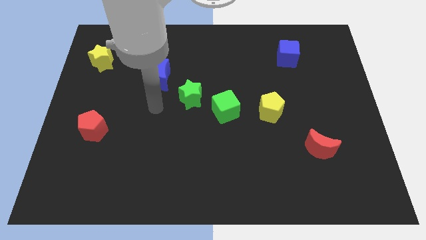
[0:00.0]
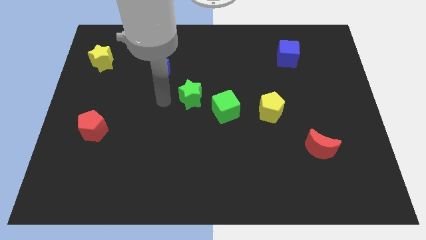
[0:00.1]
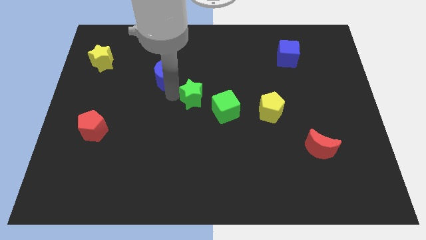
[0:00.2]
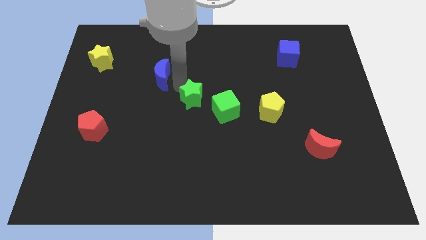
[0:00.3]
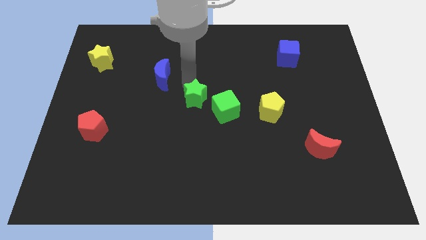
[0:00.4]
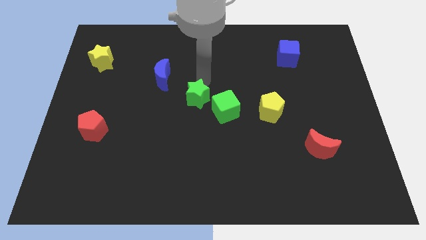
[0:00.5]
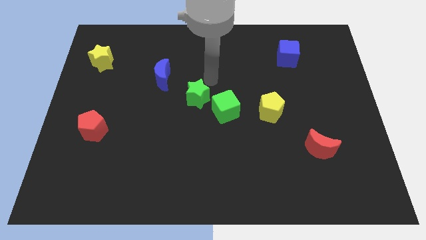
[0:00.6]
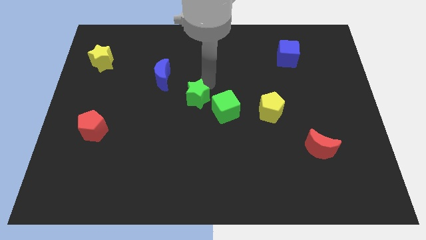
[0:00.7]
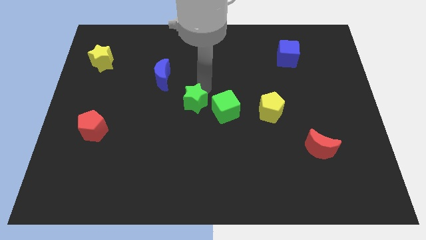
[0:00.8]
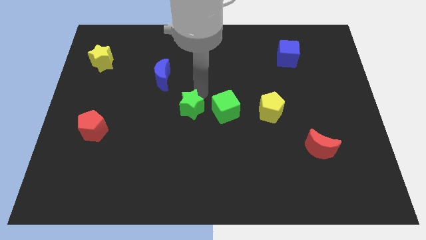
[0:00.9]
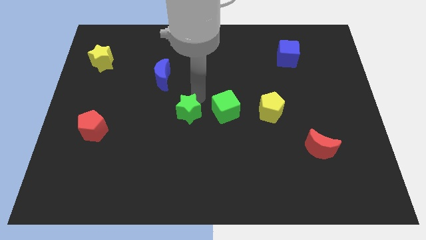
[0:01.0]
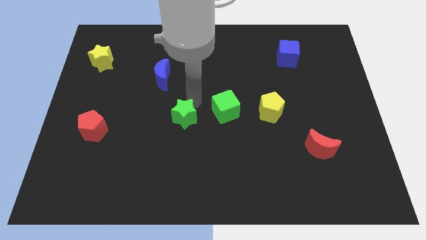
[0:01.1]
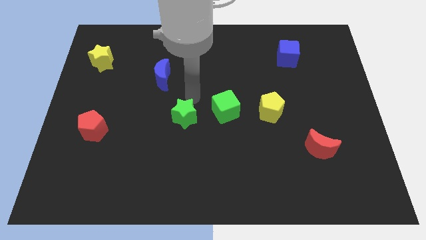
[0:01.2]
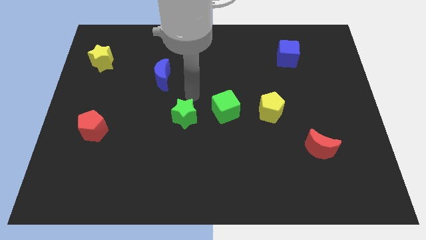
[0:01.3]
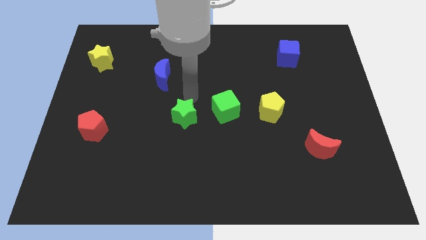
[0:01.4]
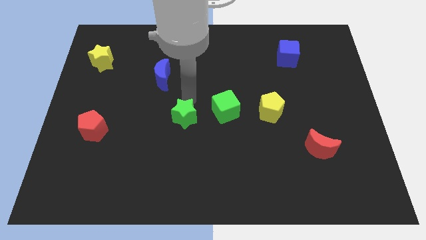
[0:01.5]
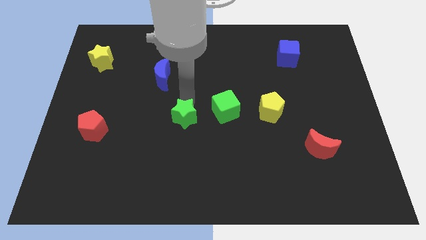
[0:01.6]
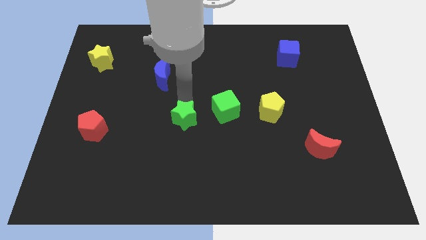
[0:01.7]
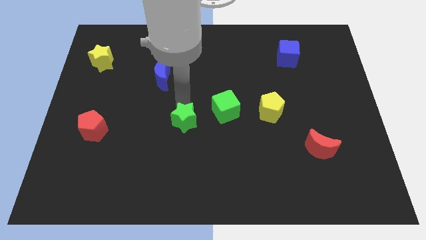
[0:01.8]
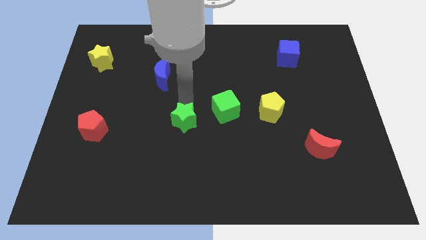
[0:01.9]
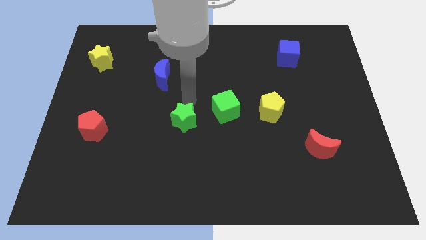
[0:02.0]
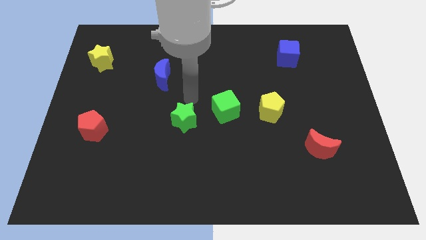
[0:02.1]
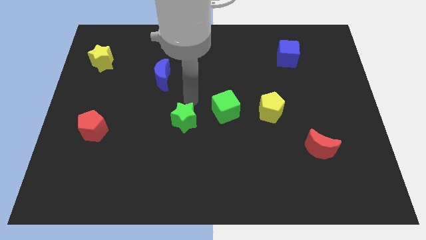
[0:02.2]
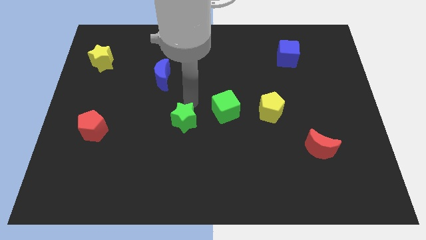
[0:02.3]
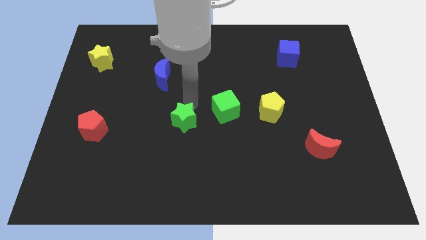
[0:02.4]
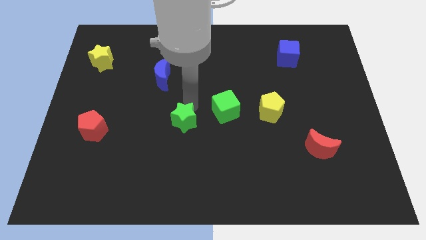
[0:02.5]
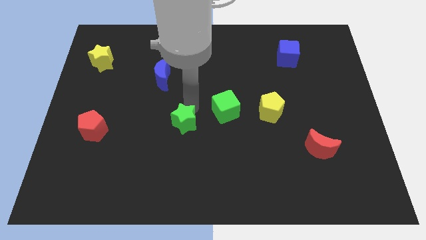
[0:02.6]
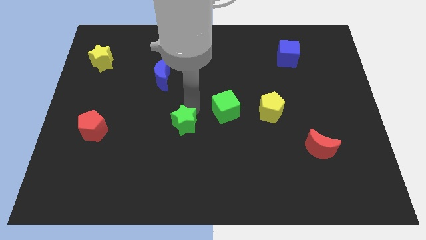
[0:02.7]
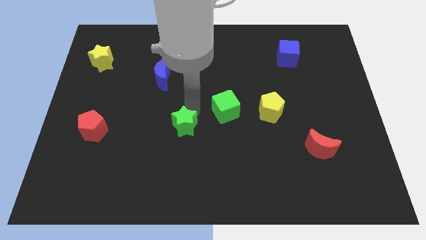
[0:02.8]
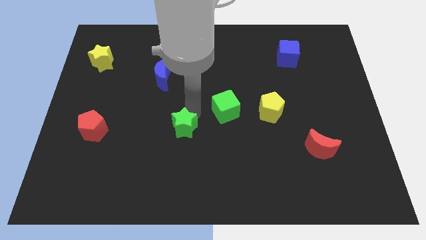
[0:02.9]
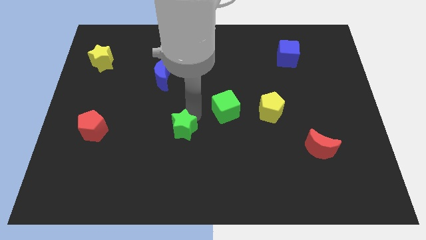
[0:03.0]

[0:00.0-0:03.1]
separate the green star from the green cube and blue moon

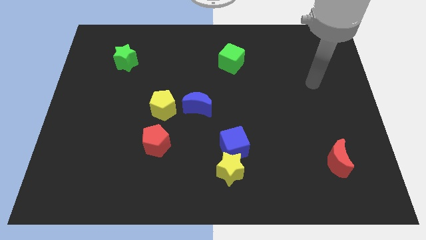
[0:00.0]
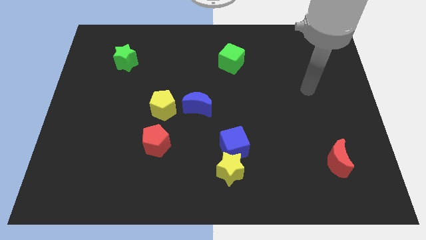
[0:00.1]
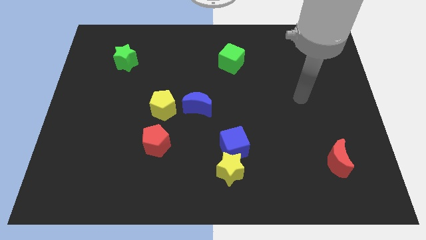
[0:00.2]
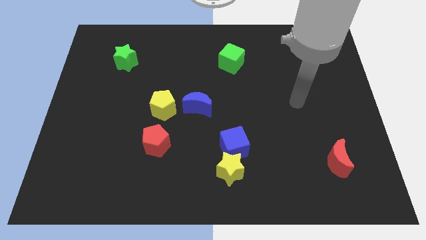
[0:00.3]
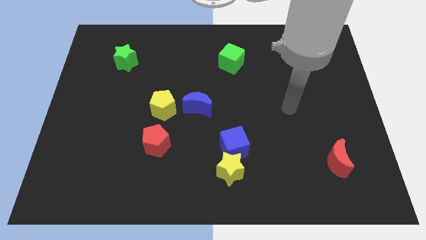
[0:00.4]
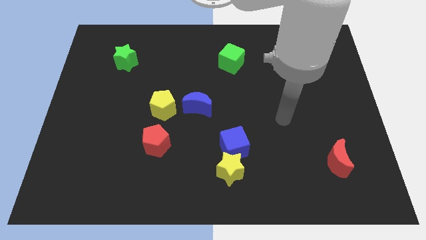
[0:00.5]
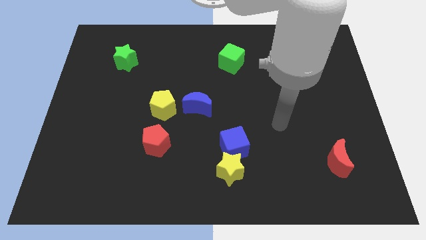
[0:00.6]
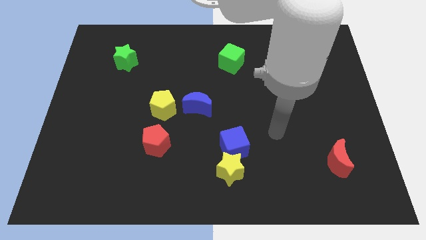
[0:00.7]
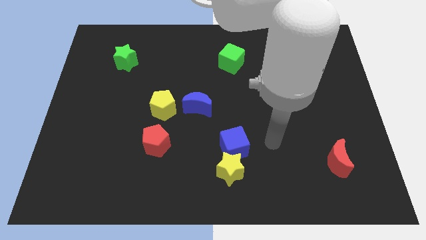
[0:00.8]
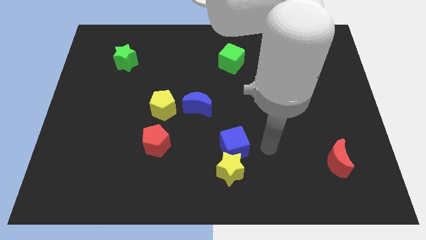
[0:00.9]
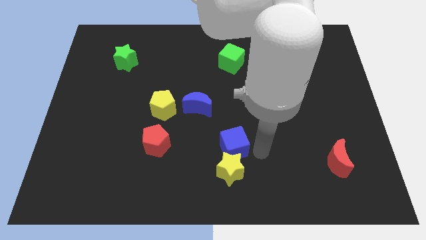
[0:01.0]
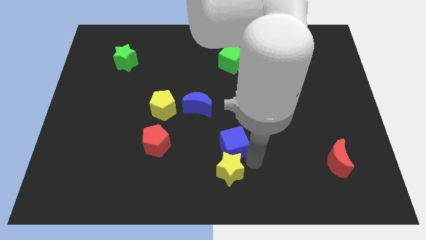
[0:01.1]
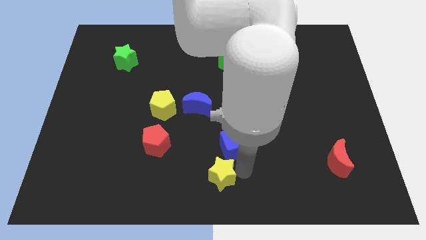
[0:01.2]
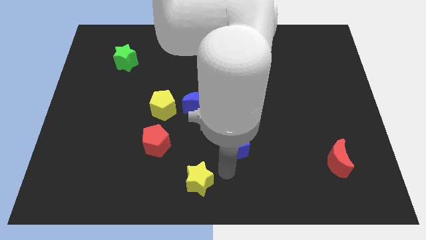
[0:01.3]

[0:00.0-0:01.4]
separate the blue cube from the yellow star

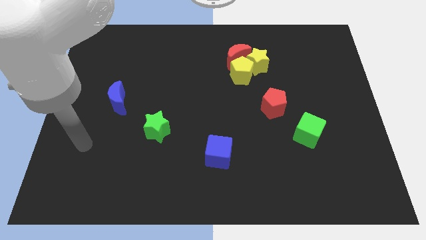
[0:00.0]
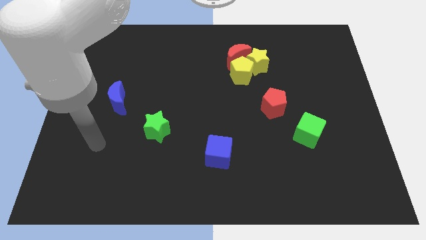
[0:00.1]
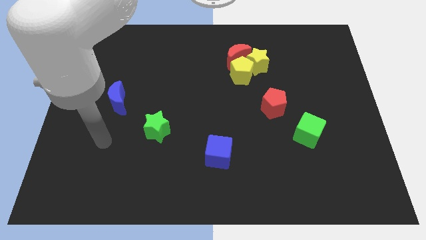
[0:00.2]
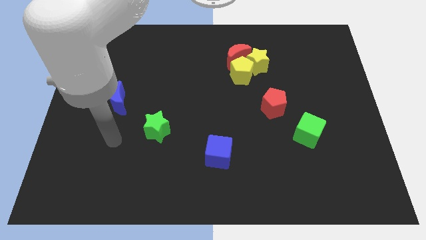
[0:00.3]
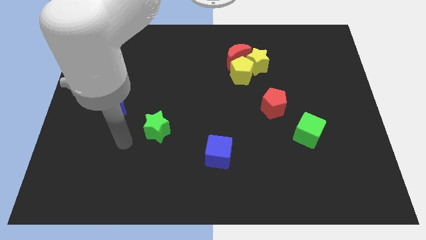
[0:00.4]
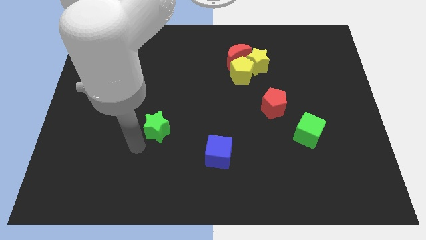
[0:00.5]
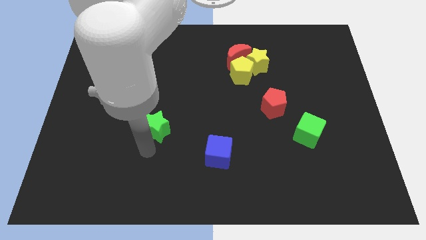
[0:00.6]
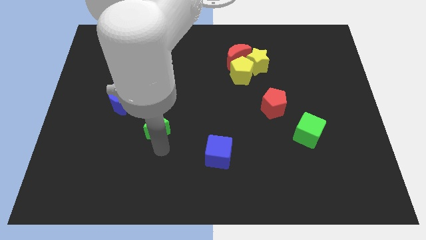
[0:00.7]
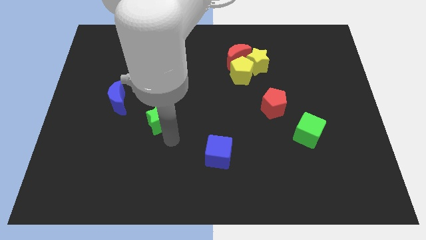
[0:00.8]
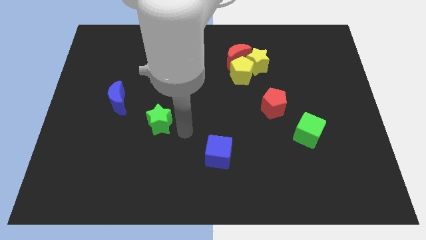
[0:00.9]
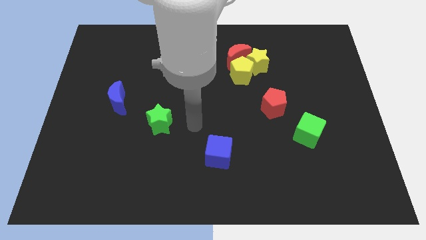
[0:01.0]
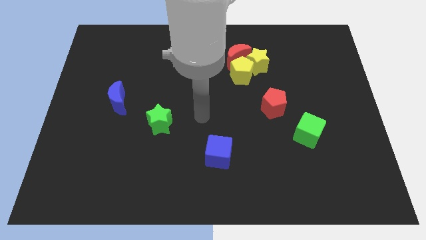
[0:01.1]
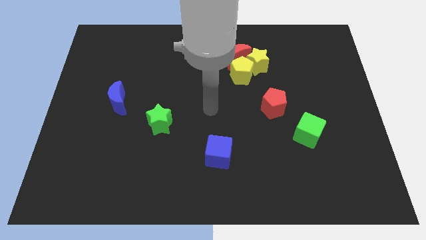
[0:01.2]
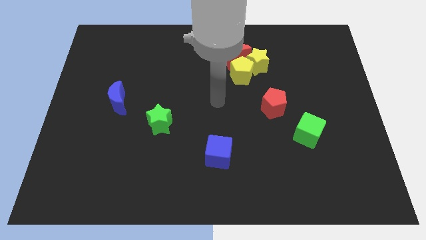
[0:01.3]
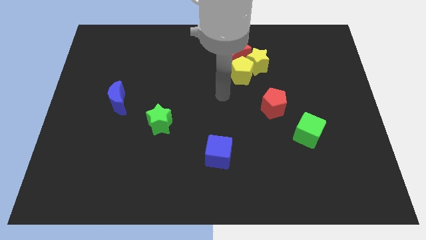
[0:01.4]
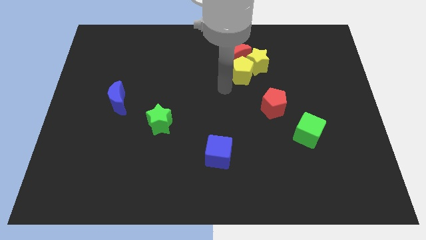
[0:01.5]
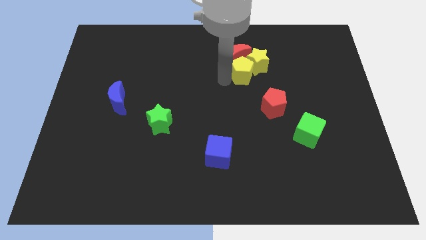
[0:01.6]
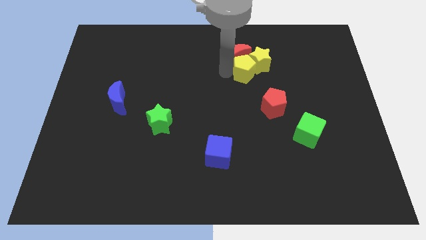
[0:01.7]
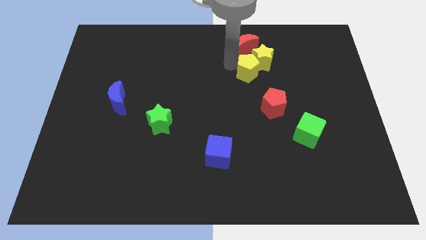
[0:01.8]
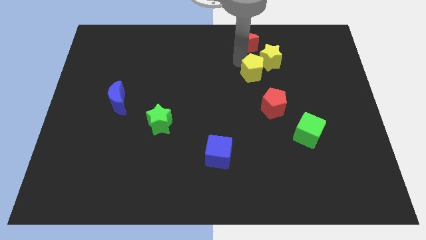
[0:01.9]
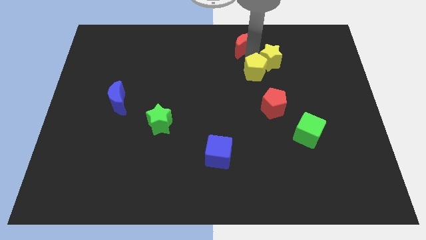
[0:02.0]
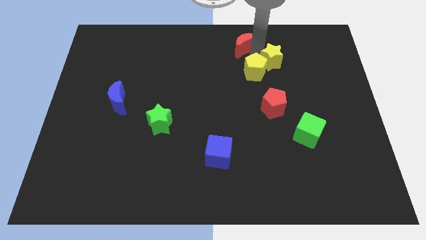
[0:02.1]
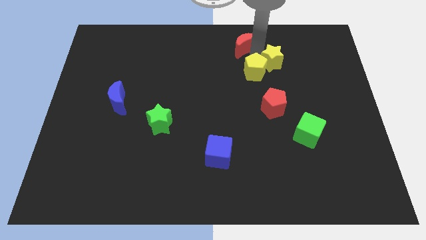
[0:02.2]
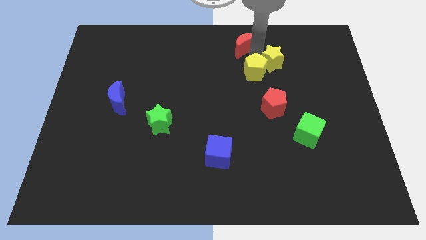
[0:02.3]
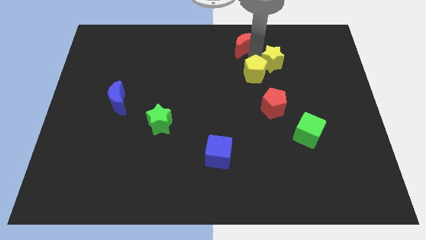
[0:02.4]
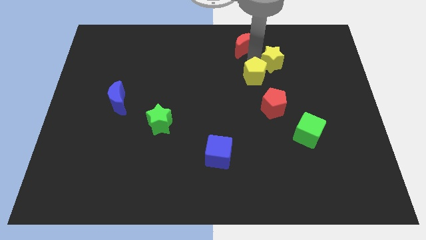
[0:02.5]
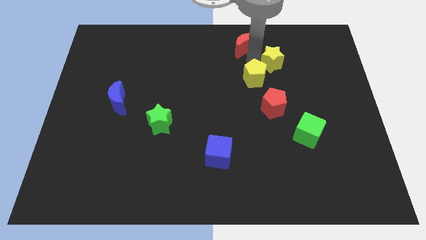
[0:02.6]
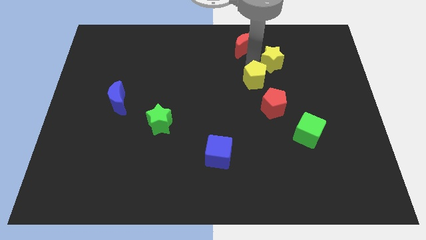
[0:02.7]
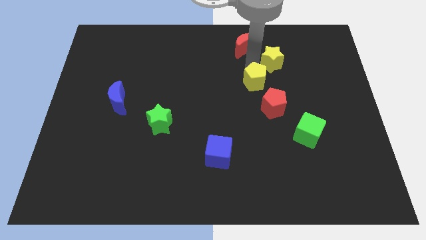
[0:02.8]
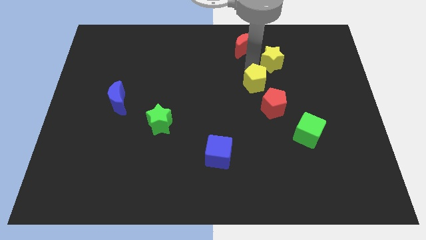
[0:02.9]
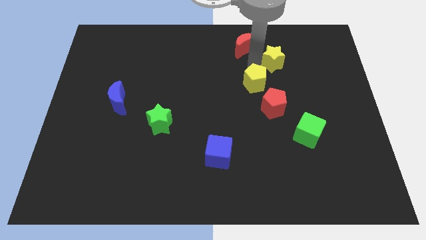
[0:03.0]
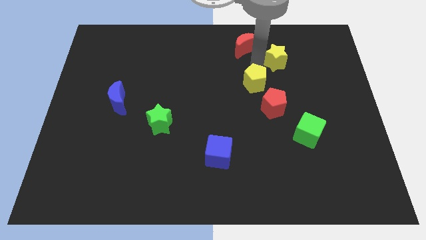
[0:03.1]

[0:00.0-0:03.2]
separate the yellow pentagon from the yellow star and red moon

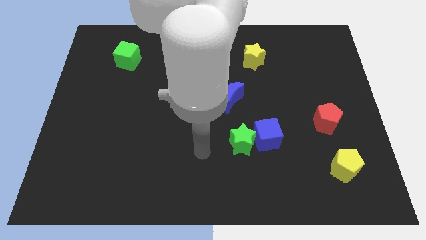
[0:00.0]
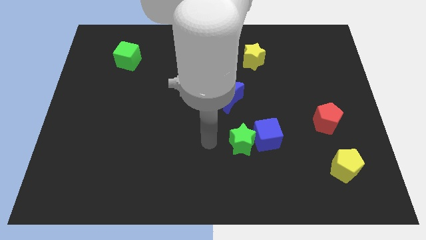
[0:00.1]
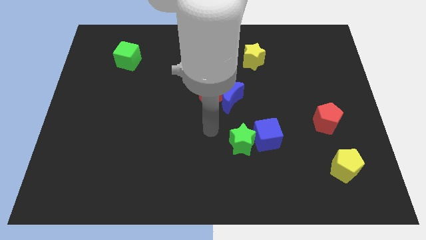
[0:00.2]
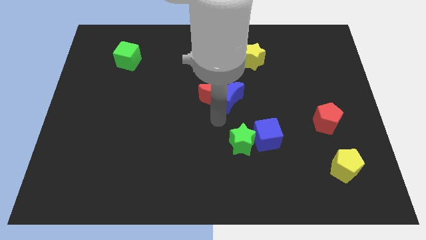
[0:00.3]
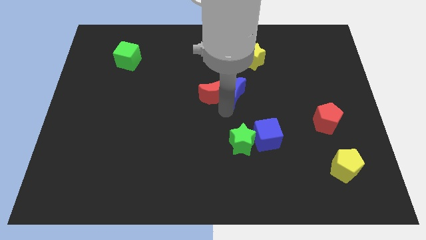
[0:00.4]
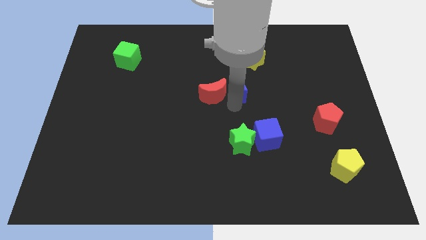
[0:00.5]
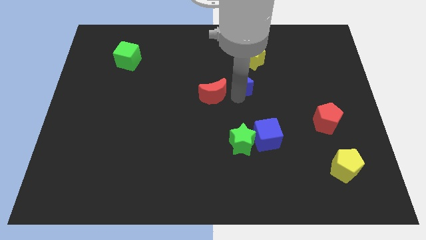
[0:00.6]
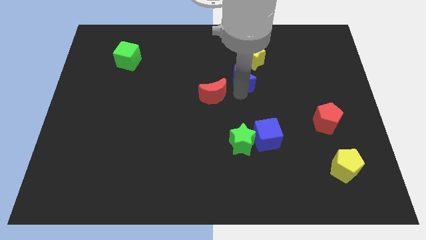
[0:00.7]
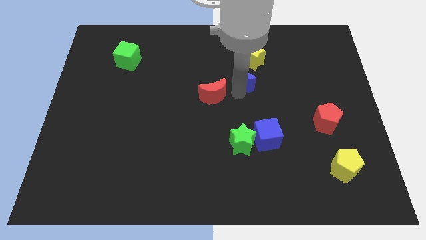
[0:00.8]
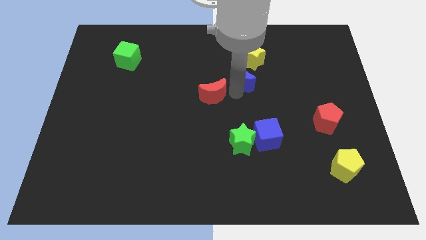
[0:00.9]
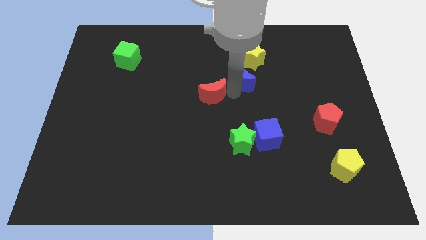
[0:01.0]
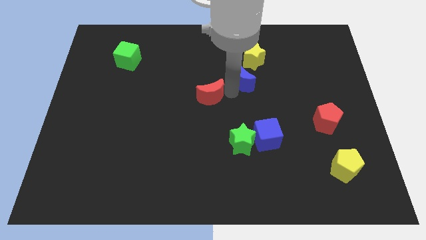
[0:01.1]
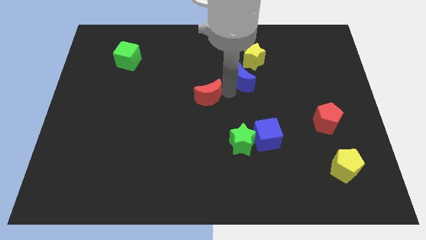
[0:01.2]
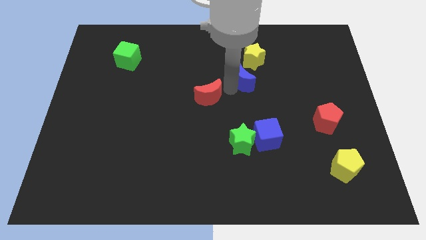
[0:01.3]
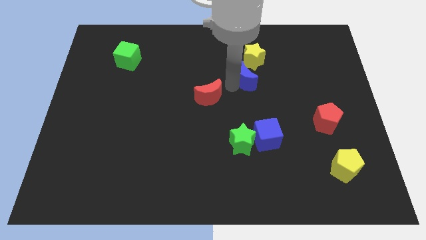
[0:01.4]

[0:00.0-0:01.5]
pull the red moon apart from the blue moon

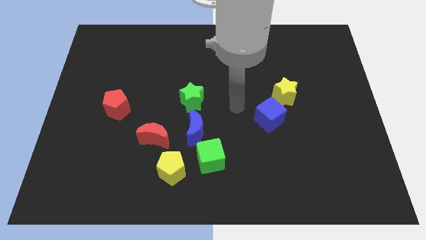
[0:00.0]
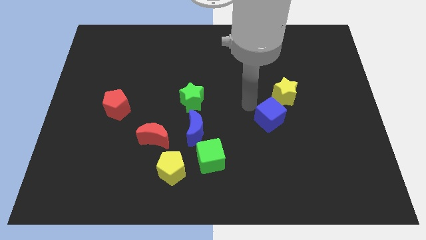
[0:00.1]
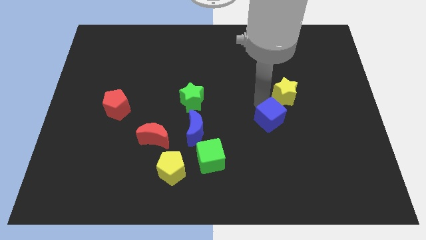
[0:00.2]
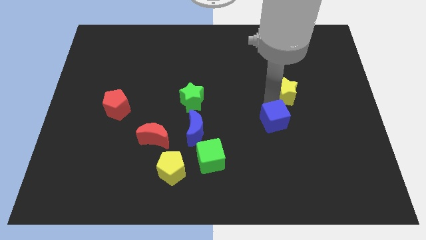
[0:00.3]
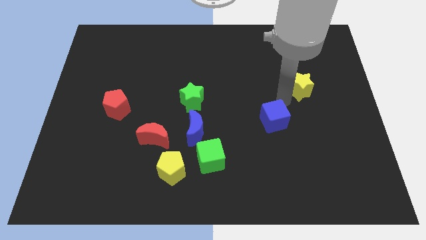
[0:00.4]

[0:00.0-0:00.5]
move the blue cube away from the yellow star
